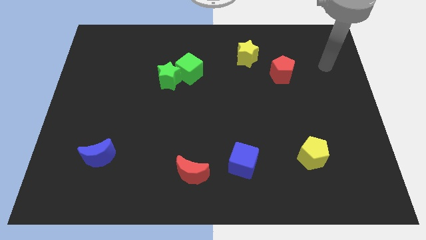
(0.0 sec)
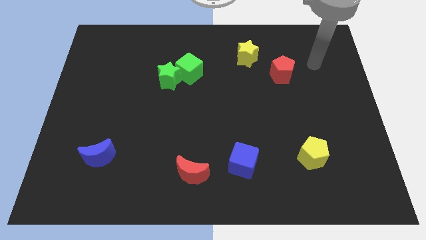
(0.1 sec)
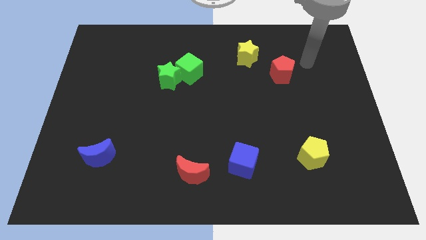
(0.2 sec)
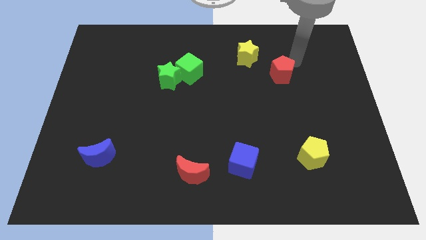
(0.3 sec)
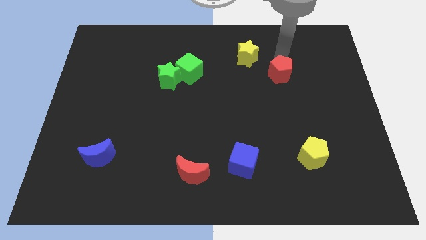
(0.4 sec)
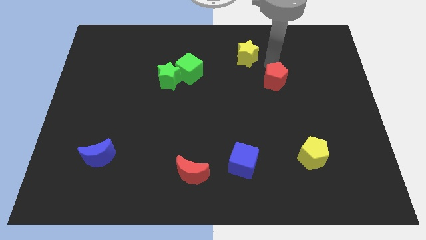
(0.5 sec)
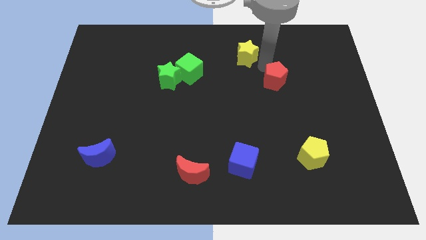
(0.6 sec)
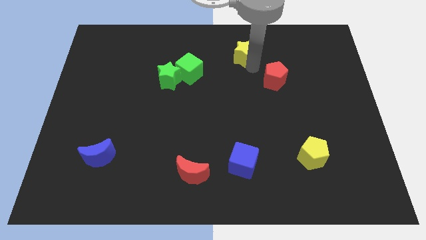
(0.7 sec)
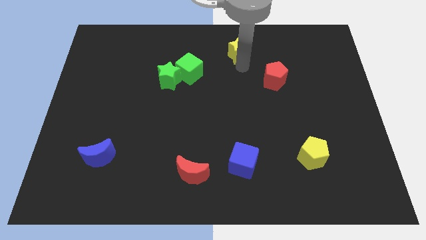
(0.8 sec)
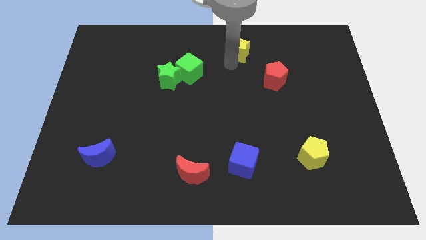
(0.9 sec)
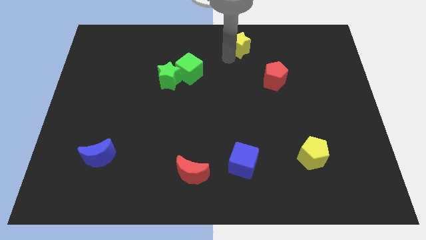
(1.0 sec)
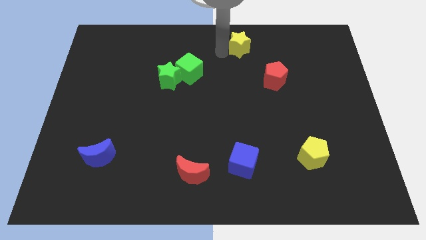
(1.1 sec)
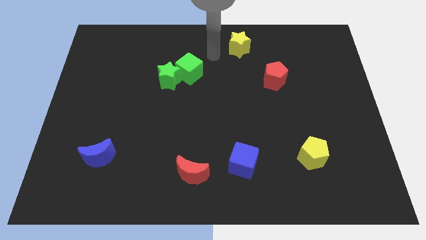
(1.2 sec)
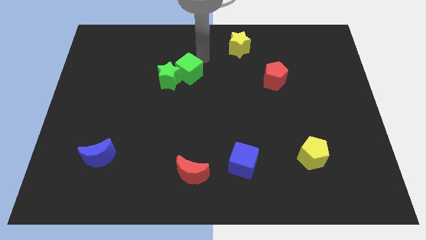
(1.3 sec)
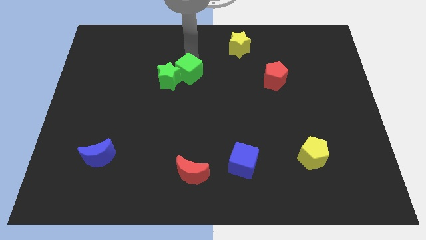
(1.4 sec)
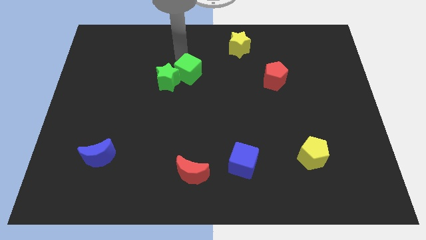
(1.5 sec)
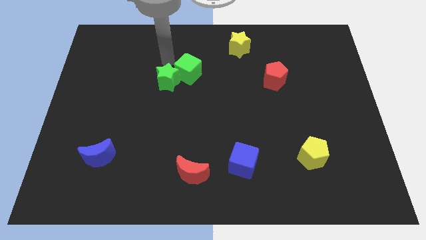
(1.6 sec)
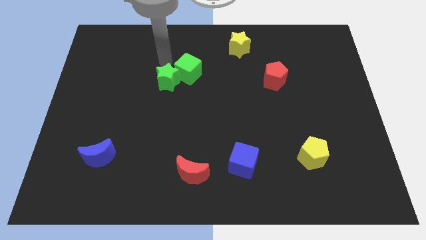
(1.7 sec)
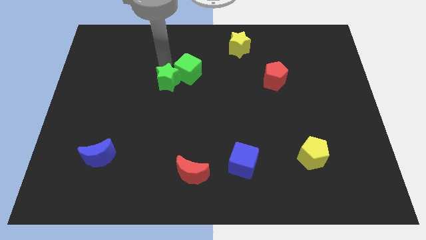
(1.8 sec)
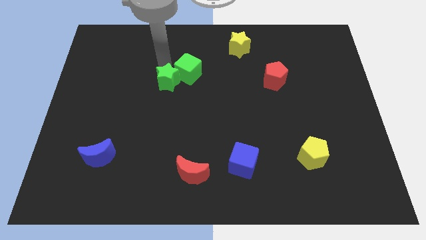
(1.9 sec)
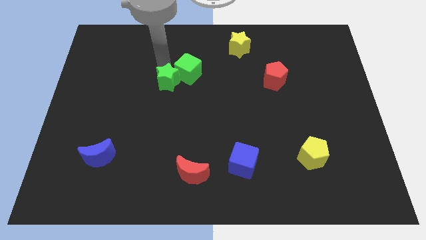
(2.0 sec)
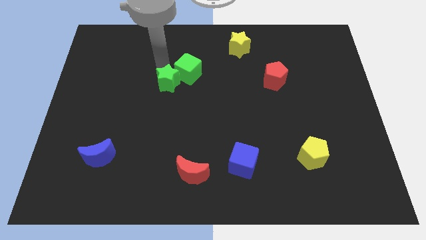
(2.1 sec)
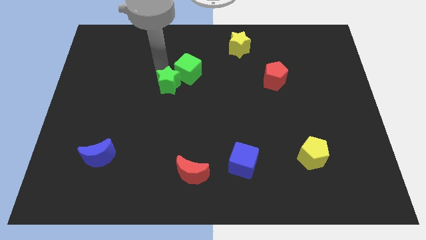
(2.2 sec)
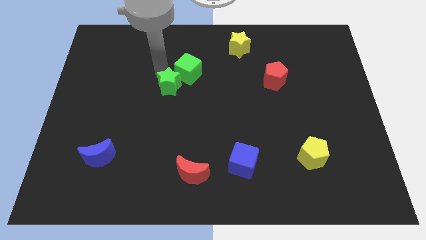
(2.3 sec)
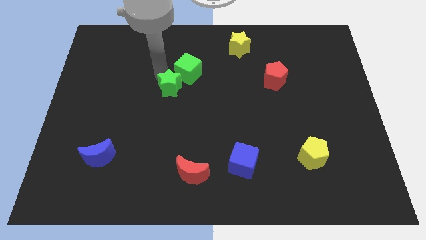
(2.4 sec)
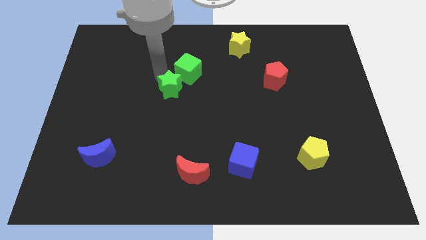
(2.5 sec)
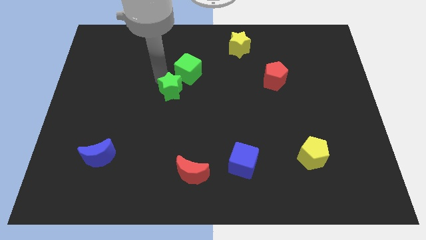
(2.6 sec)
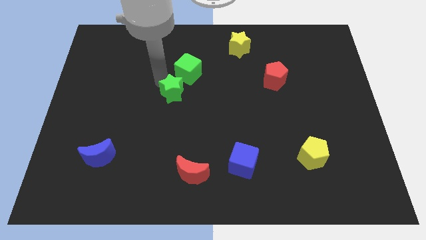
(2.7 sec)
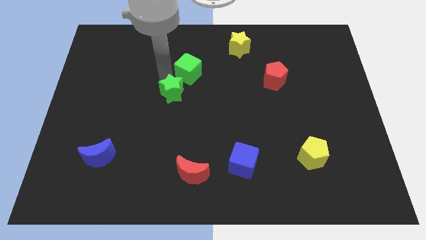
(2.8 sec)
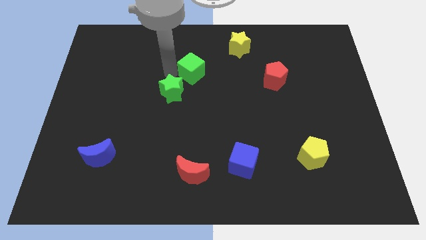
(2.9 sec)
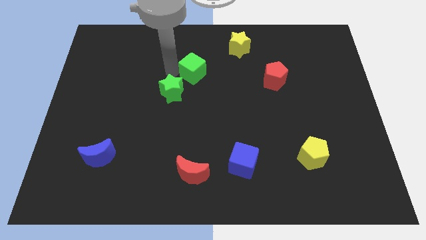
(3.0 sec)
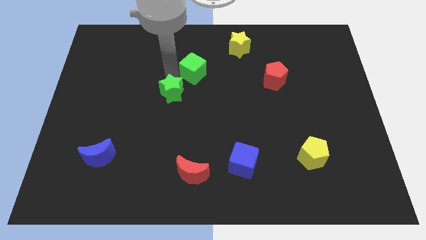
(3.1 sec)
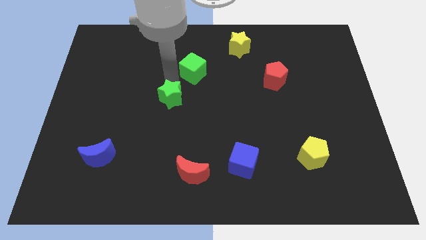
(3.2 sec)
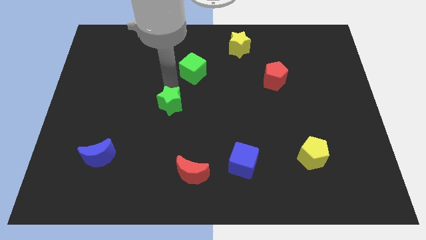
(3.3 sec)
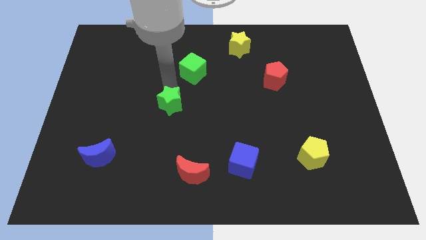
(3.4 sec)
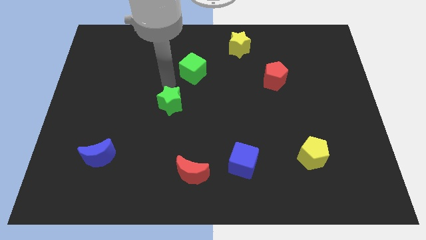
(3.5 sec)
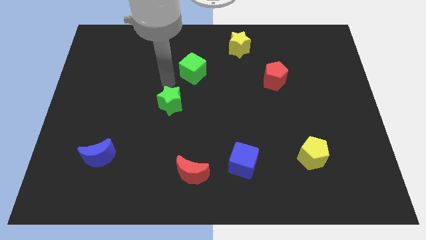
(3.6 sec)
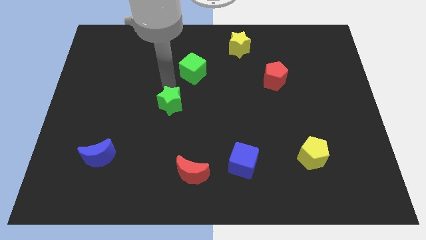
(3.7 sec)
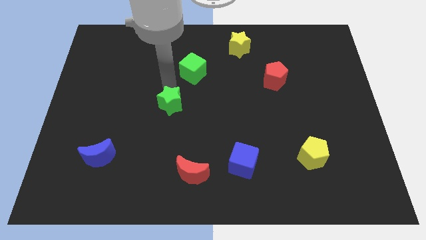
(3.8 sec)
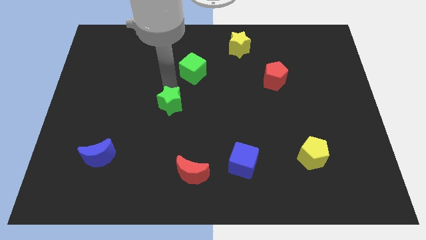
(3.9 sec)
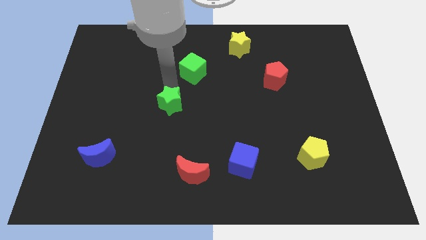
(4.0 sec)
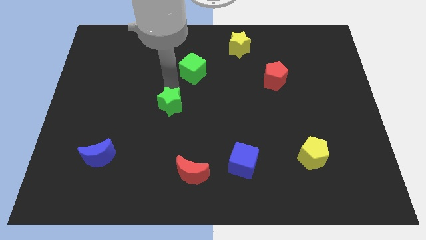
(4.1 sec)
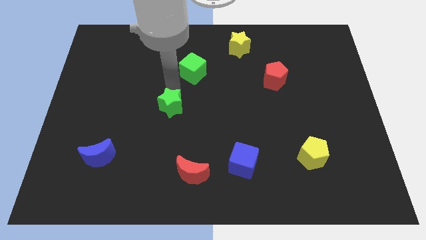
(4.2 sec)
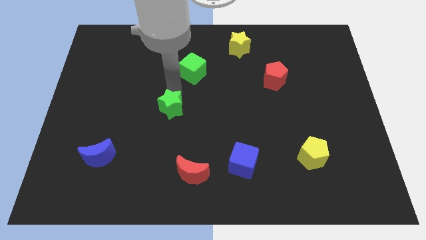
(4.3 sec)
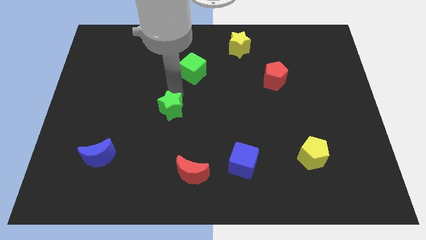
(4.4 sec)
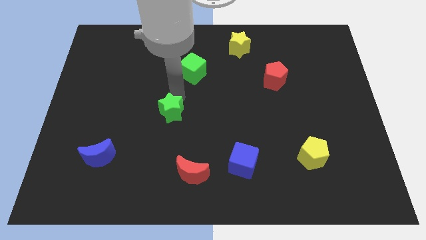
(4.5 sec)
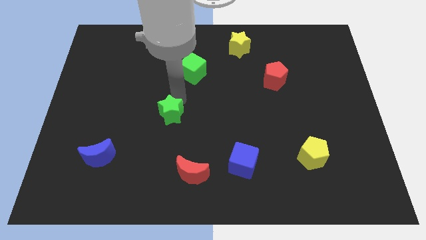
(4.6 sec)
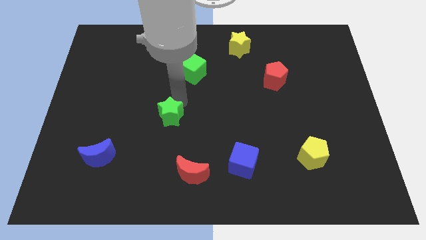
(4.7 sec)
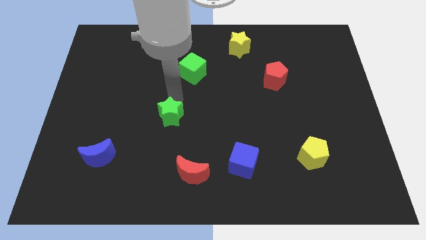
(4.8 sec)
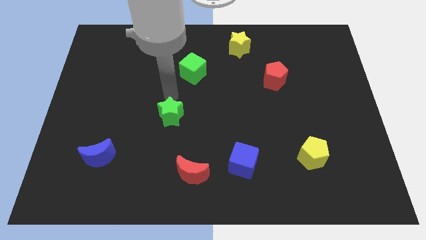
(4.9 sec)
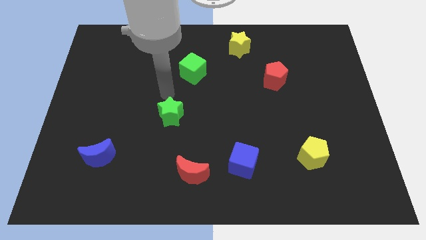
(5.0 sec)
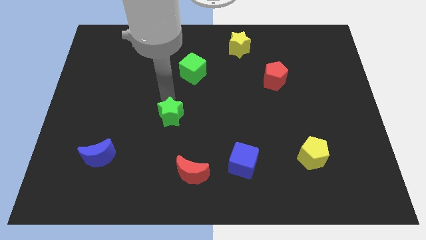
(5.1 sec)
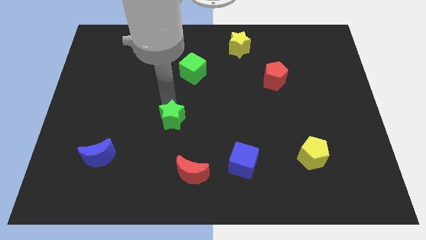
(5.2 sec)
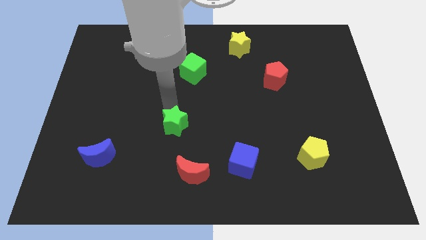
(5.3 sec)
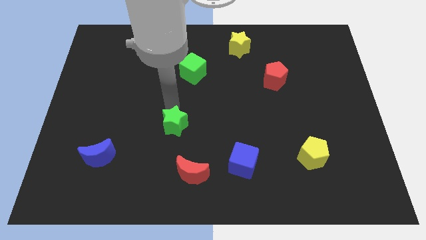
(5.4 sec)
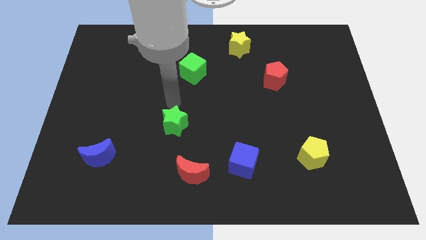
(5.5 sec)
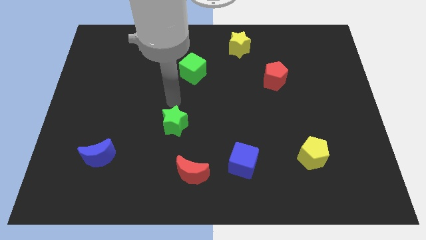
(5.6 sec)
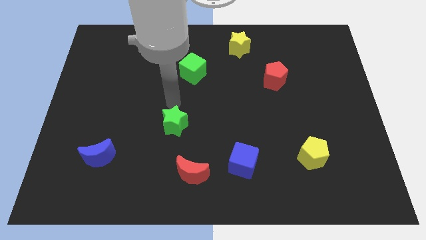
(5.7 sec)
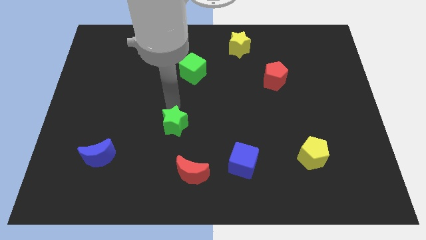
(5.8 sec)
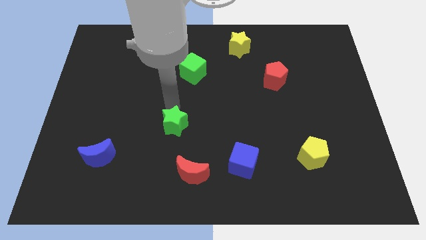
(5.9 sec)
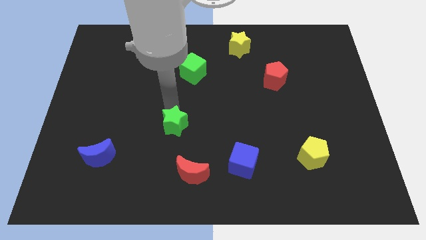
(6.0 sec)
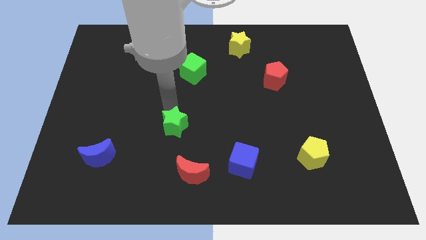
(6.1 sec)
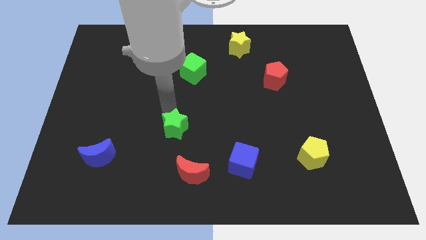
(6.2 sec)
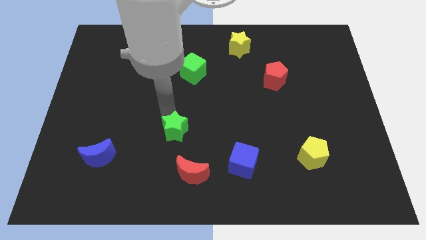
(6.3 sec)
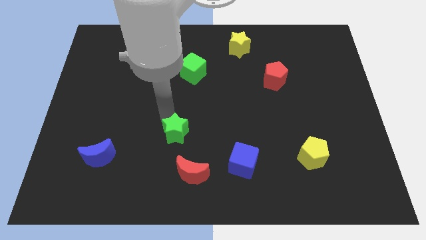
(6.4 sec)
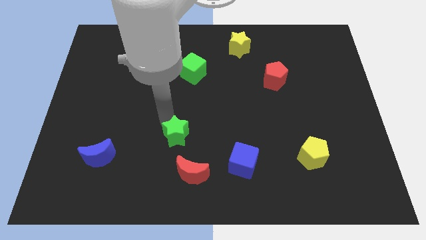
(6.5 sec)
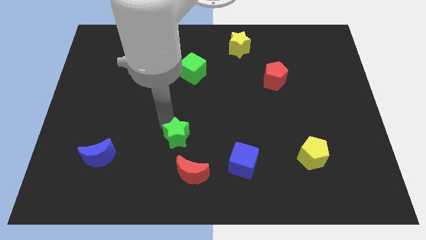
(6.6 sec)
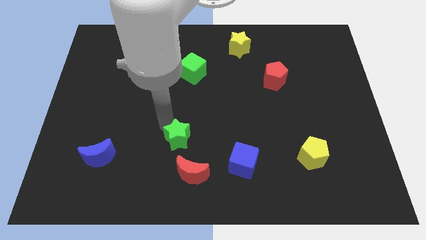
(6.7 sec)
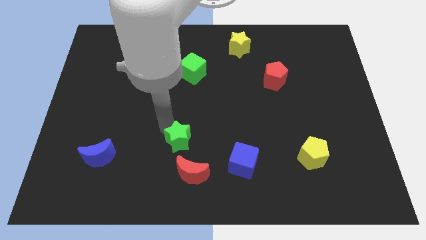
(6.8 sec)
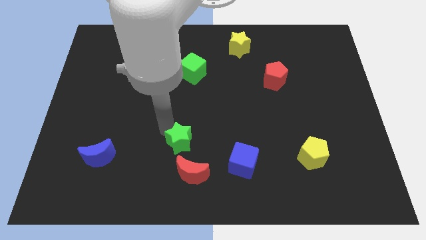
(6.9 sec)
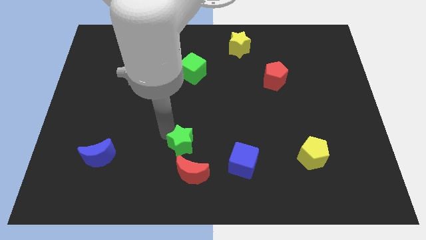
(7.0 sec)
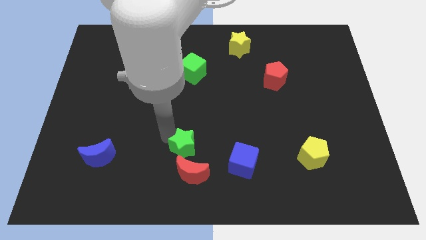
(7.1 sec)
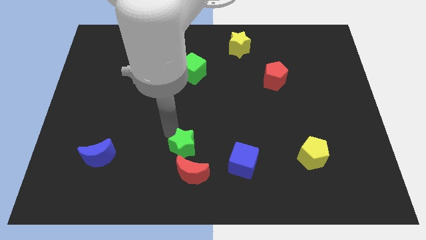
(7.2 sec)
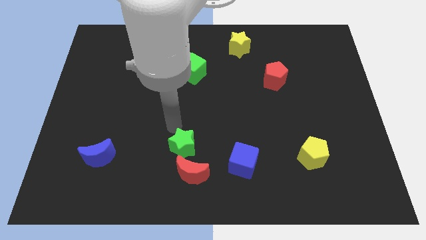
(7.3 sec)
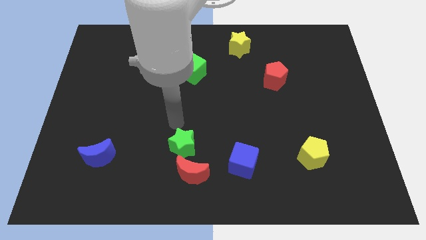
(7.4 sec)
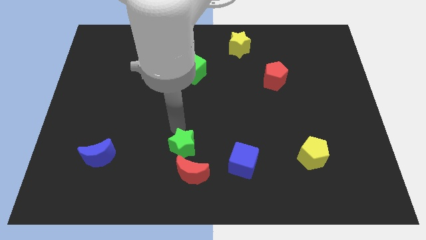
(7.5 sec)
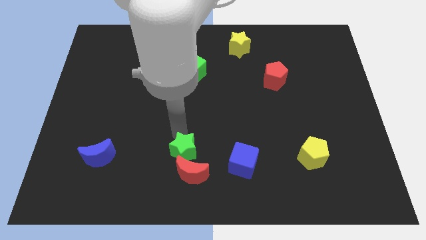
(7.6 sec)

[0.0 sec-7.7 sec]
slide the green star to the red moon
